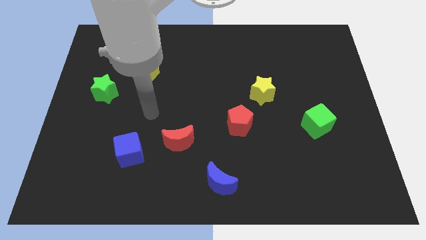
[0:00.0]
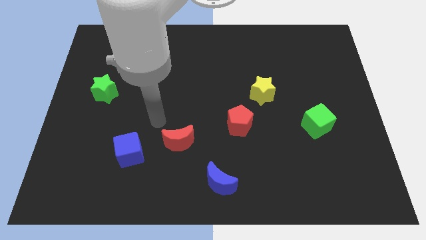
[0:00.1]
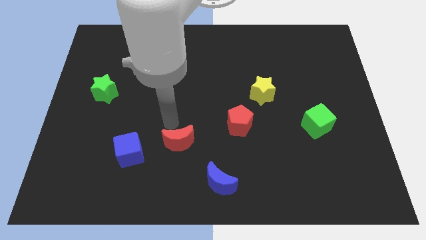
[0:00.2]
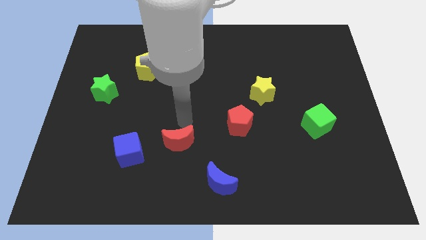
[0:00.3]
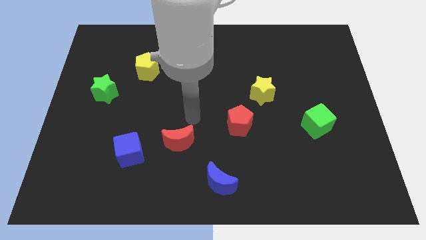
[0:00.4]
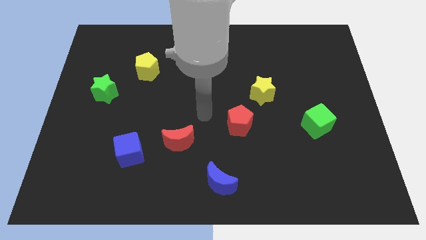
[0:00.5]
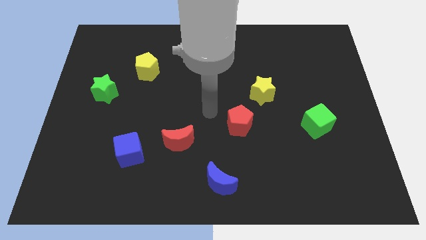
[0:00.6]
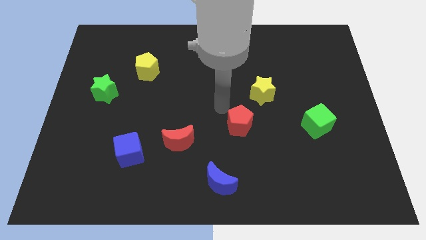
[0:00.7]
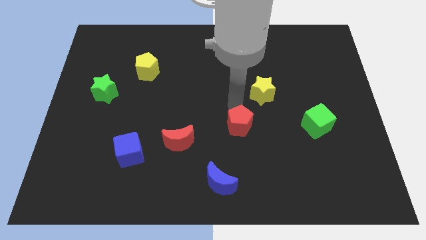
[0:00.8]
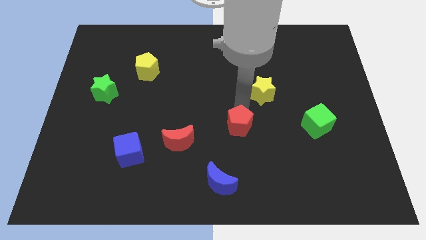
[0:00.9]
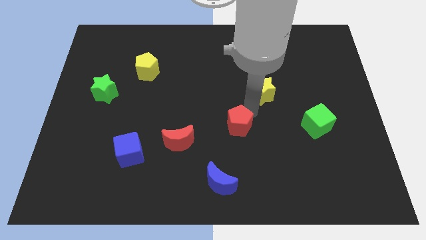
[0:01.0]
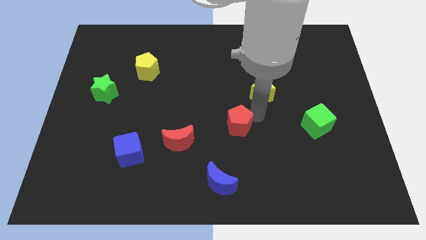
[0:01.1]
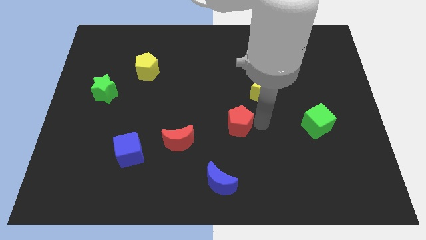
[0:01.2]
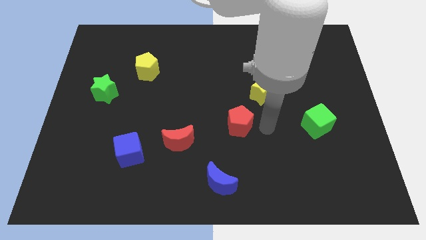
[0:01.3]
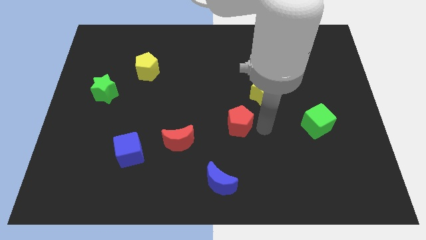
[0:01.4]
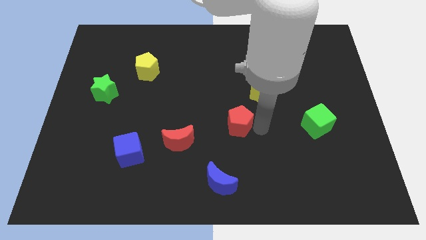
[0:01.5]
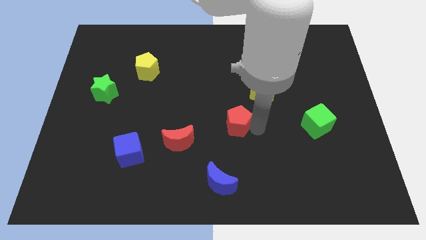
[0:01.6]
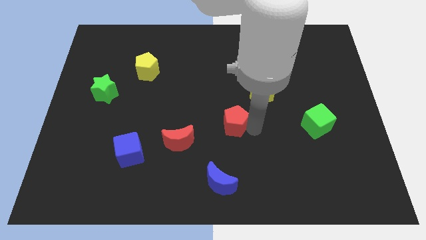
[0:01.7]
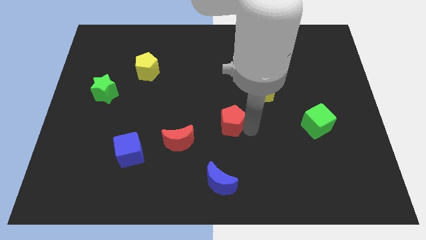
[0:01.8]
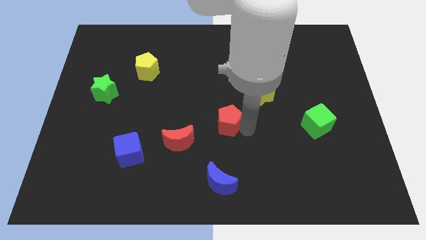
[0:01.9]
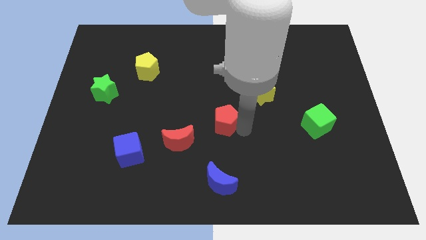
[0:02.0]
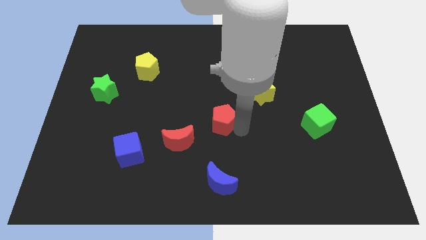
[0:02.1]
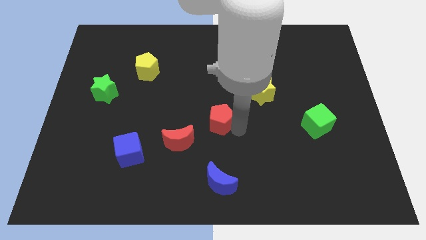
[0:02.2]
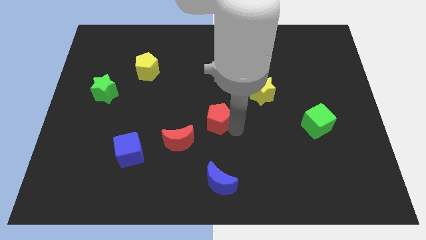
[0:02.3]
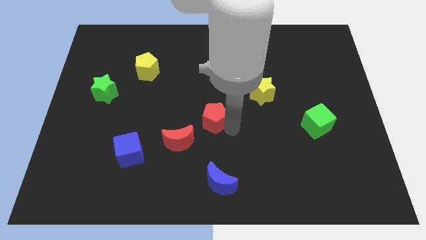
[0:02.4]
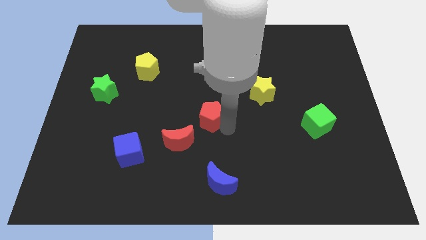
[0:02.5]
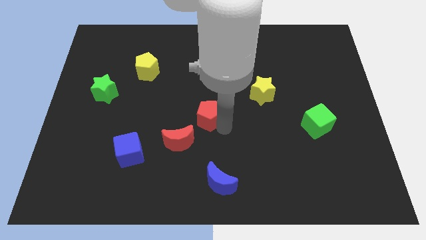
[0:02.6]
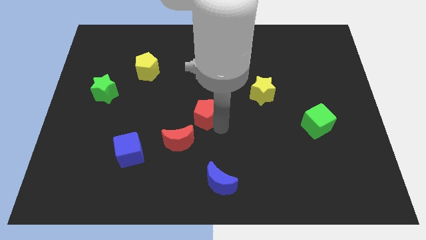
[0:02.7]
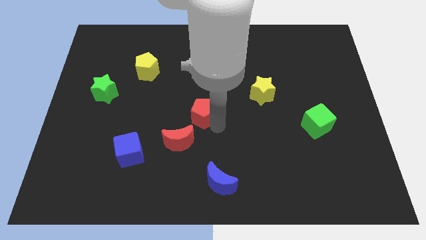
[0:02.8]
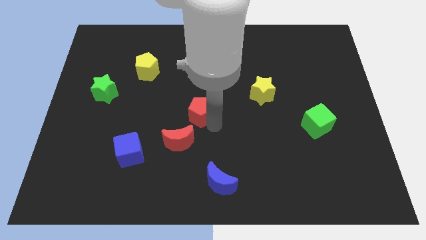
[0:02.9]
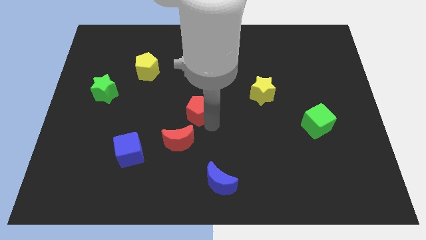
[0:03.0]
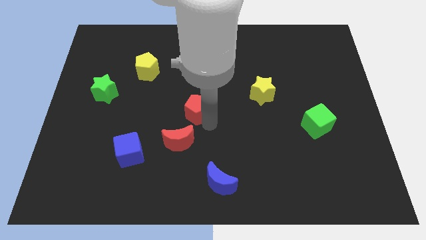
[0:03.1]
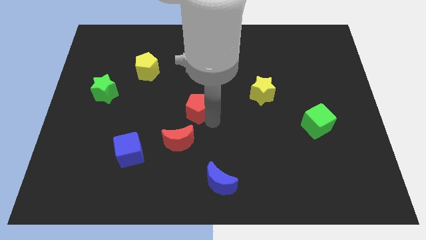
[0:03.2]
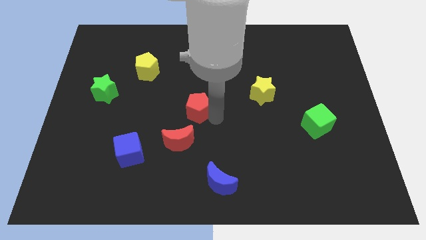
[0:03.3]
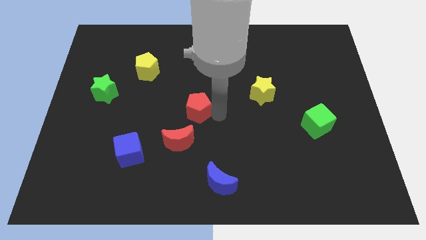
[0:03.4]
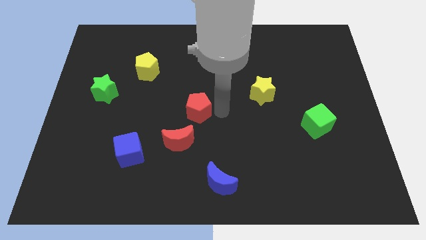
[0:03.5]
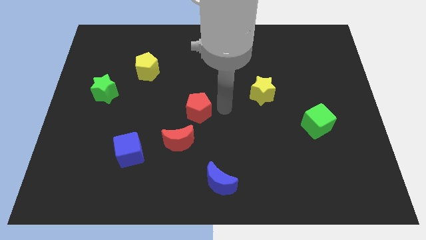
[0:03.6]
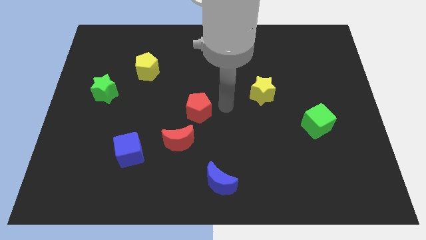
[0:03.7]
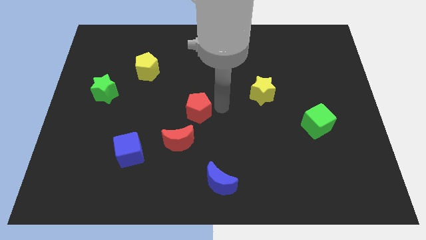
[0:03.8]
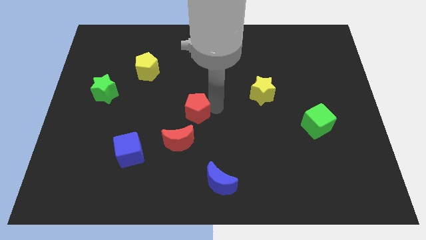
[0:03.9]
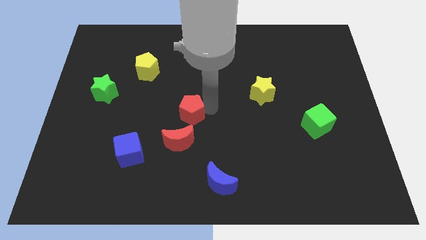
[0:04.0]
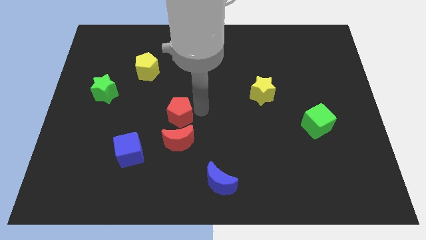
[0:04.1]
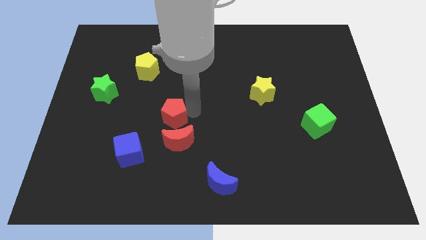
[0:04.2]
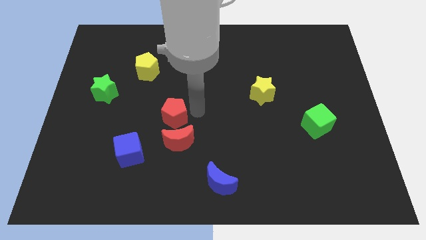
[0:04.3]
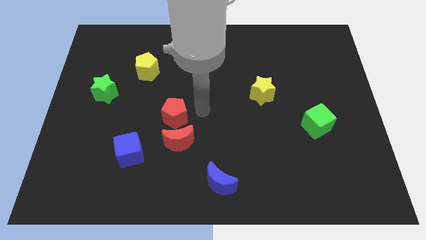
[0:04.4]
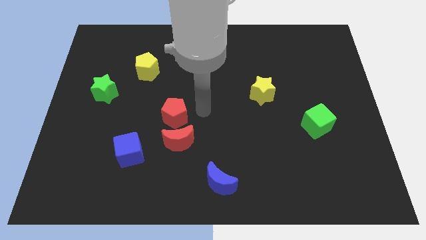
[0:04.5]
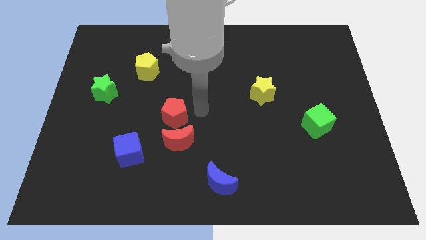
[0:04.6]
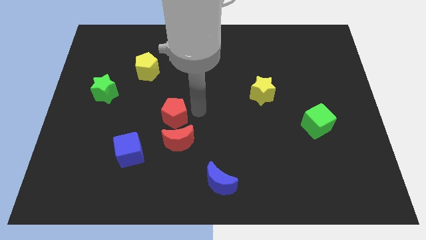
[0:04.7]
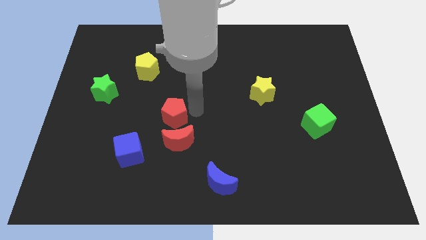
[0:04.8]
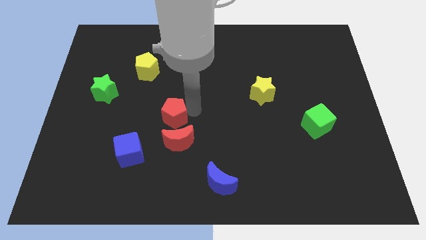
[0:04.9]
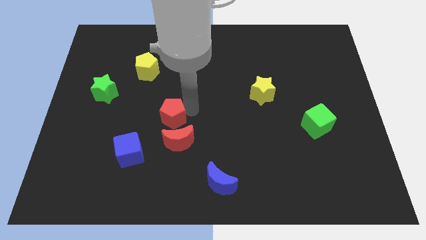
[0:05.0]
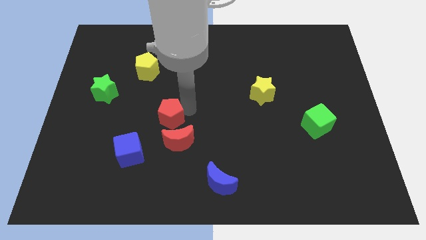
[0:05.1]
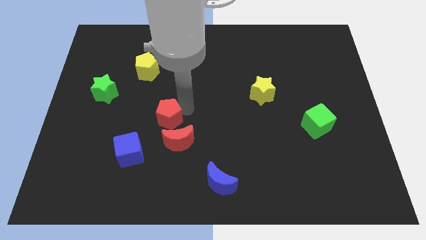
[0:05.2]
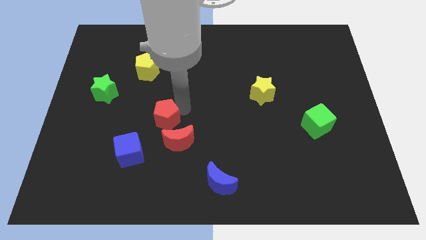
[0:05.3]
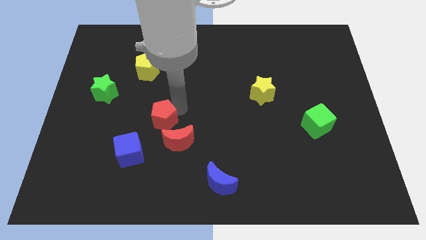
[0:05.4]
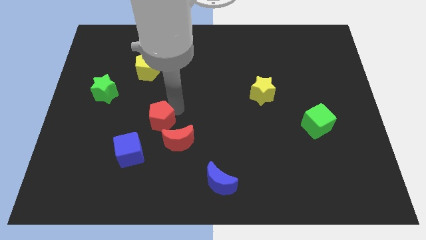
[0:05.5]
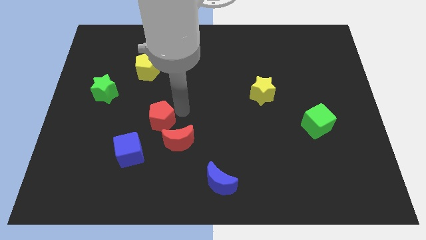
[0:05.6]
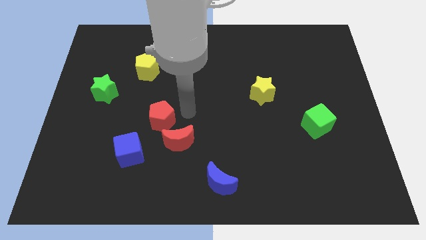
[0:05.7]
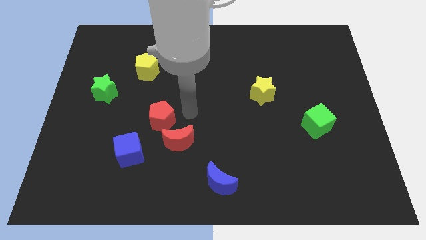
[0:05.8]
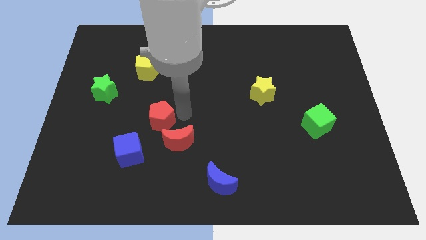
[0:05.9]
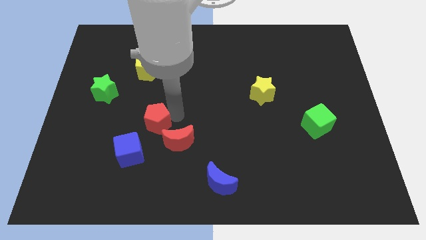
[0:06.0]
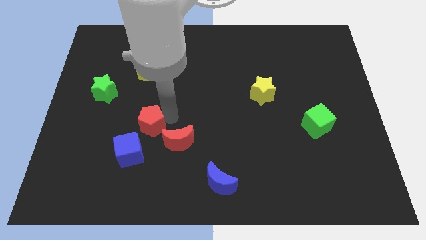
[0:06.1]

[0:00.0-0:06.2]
slide the red pentagon left

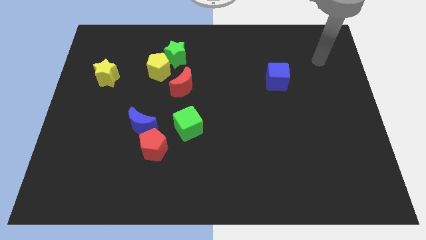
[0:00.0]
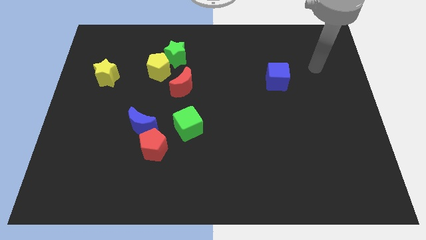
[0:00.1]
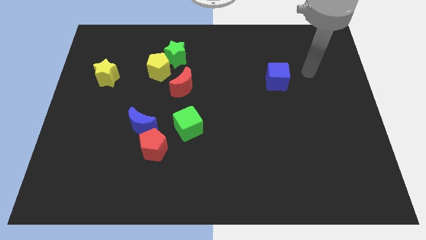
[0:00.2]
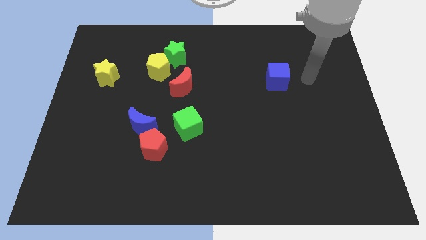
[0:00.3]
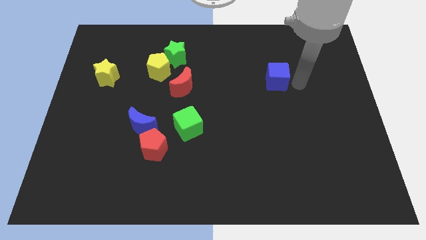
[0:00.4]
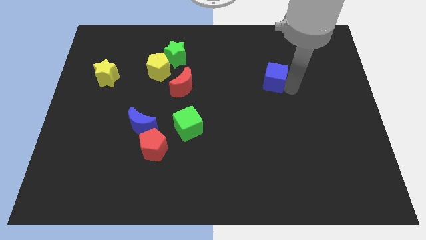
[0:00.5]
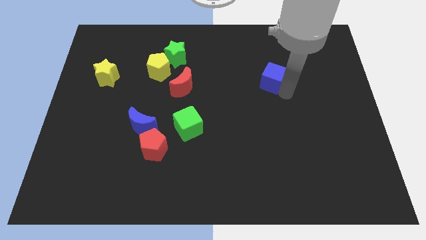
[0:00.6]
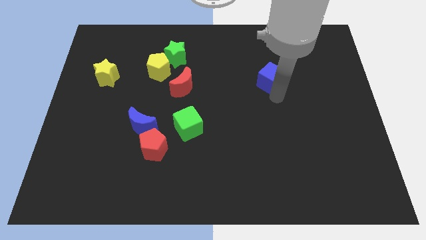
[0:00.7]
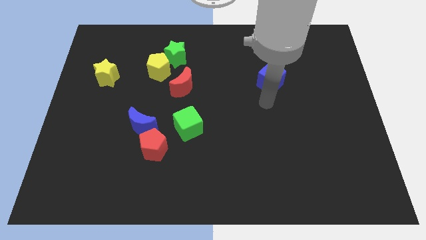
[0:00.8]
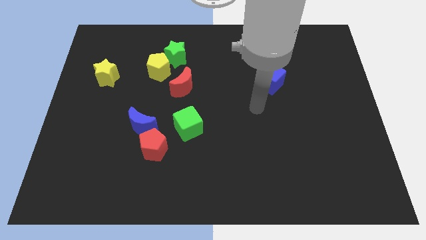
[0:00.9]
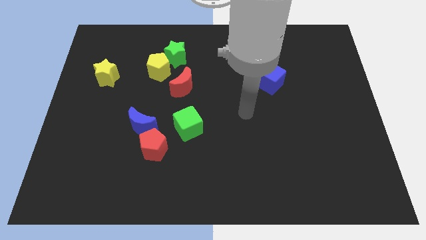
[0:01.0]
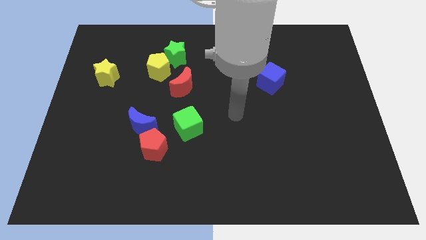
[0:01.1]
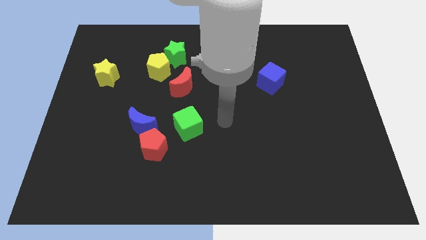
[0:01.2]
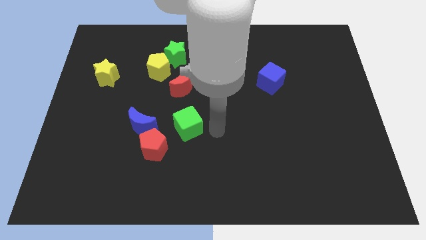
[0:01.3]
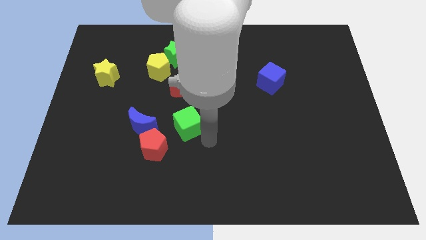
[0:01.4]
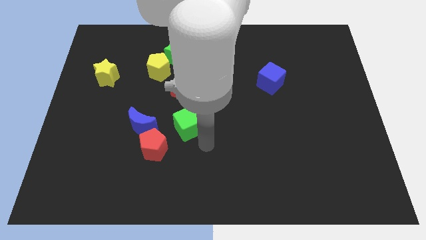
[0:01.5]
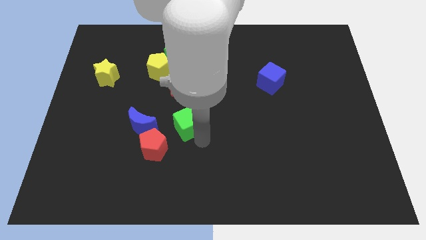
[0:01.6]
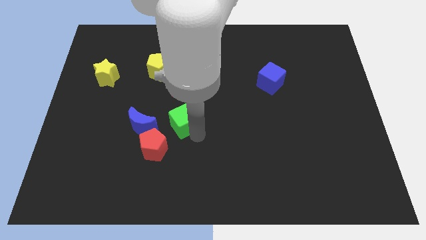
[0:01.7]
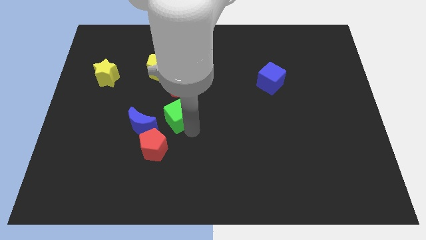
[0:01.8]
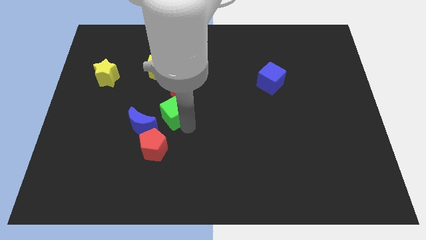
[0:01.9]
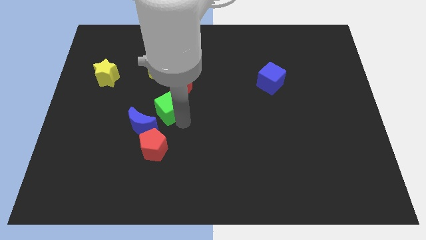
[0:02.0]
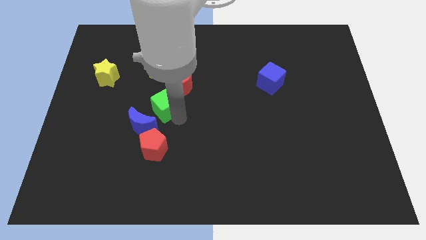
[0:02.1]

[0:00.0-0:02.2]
slightly slide the green cube upwards and to the left diagonally
